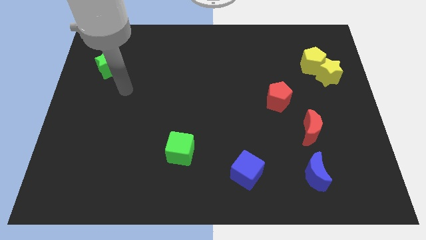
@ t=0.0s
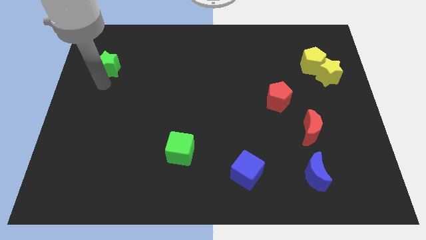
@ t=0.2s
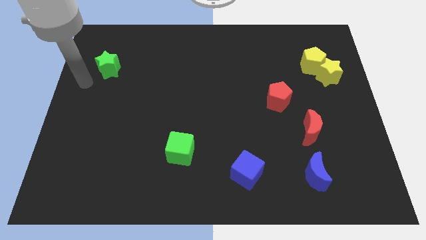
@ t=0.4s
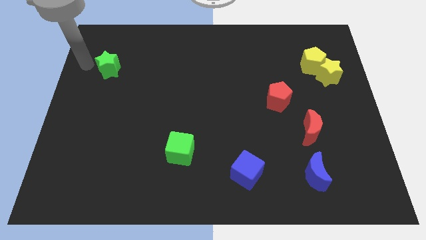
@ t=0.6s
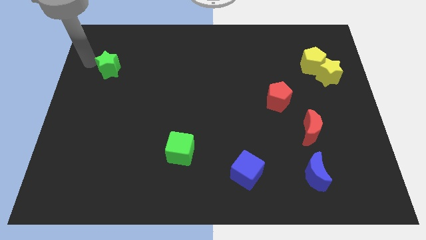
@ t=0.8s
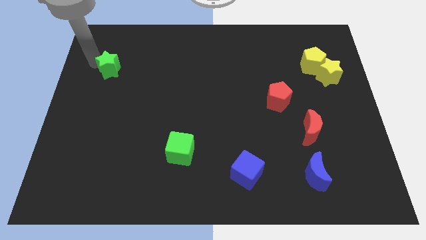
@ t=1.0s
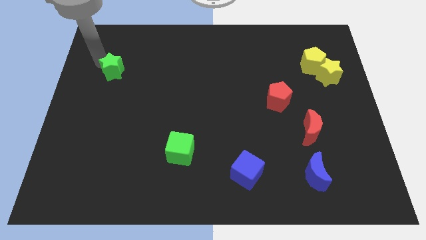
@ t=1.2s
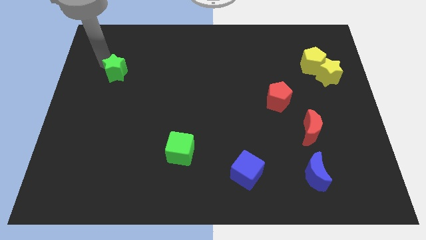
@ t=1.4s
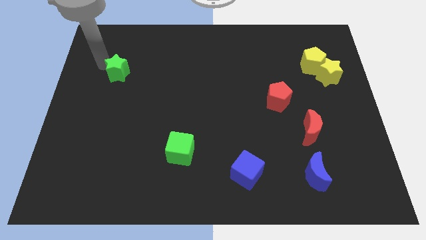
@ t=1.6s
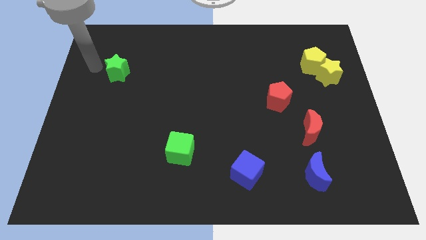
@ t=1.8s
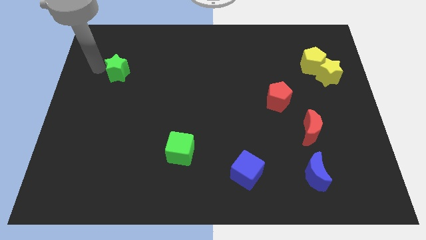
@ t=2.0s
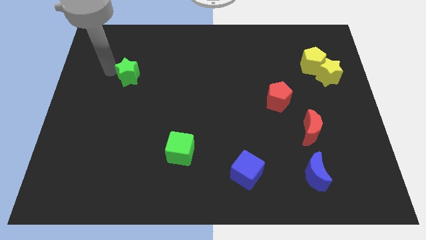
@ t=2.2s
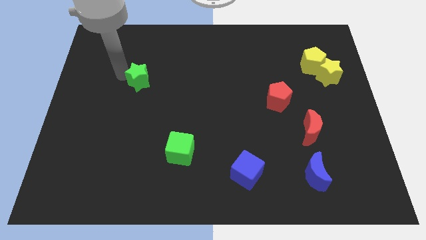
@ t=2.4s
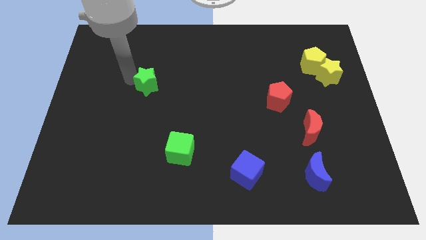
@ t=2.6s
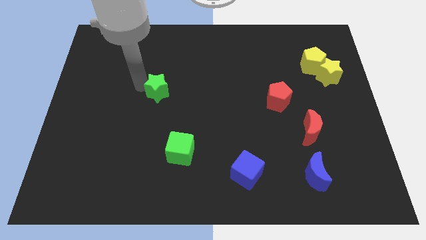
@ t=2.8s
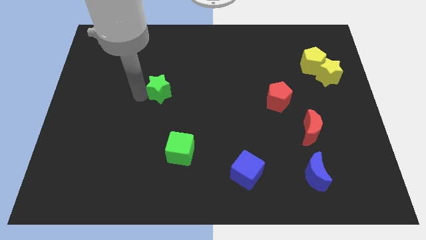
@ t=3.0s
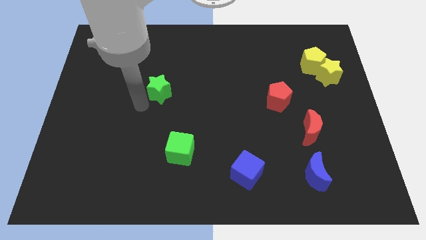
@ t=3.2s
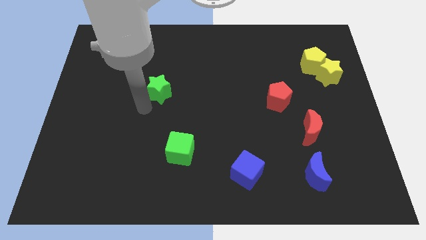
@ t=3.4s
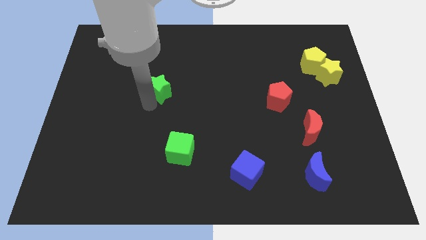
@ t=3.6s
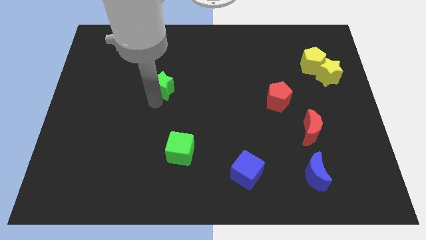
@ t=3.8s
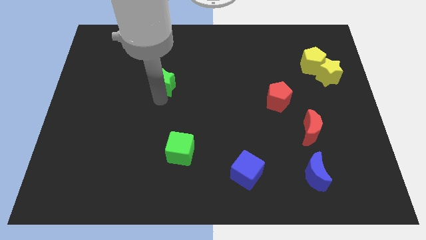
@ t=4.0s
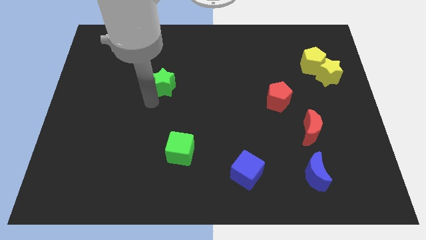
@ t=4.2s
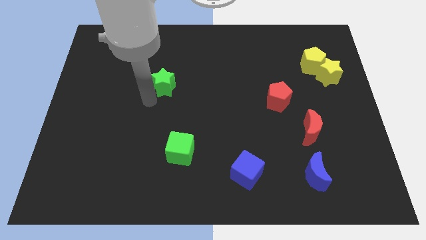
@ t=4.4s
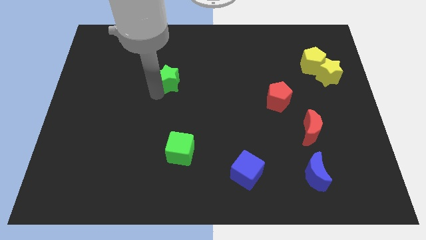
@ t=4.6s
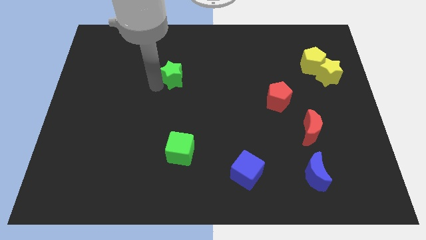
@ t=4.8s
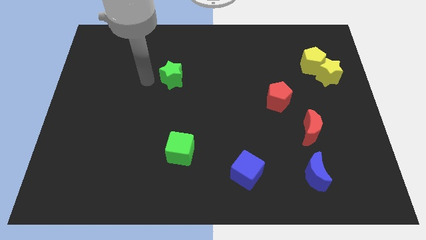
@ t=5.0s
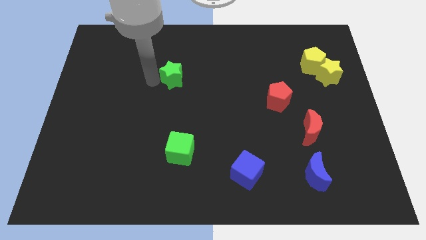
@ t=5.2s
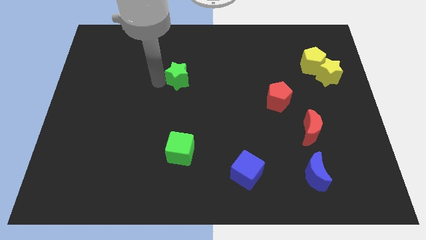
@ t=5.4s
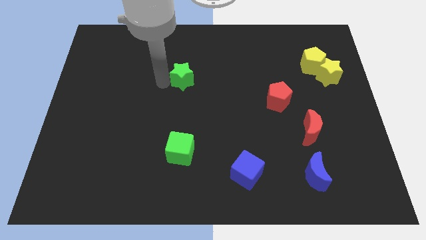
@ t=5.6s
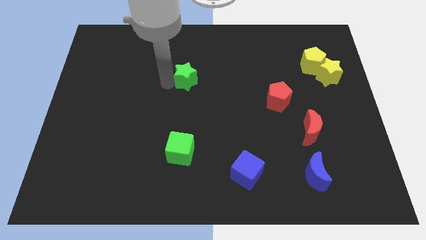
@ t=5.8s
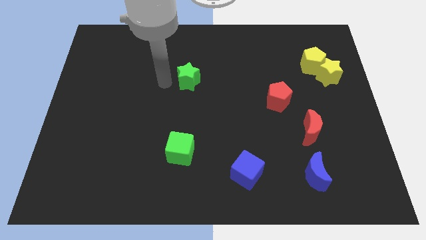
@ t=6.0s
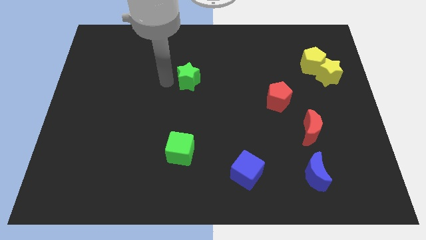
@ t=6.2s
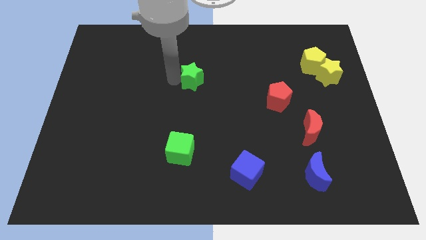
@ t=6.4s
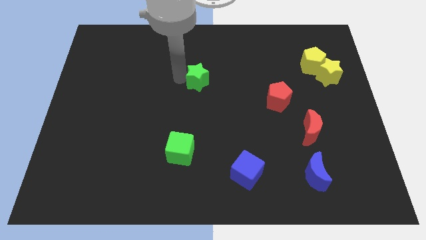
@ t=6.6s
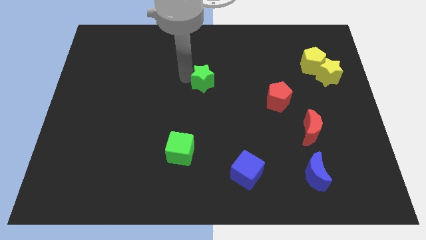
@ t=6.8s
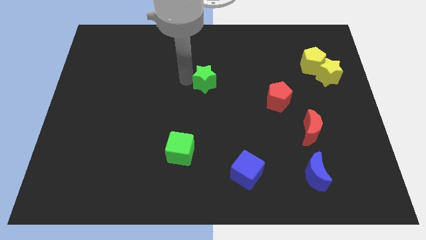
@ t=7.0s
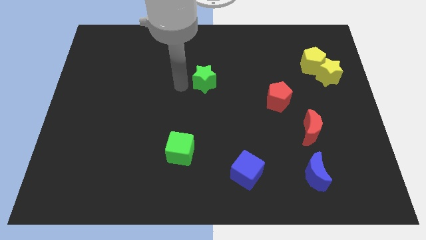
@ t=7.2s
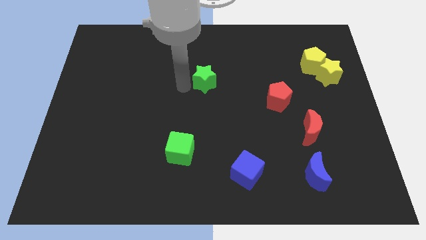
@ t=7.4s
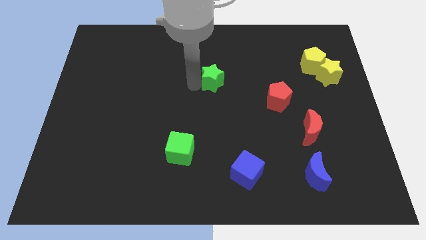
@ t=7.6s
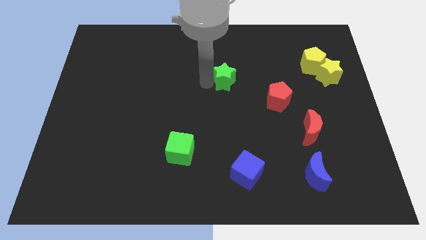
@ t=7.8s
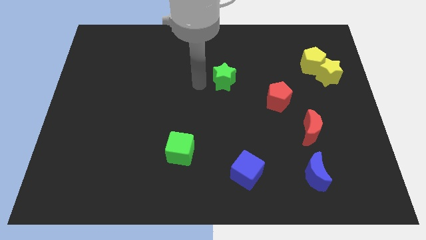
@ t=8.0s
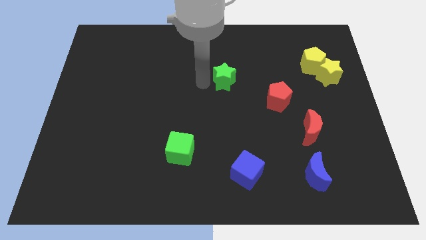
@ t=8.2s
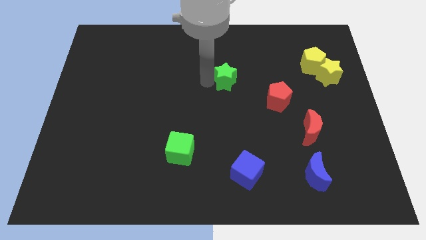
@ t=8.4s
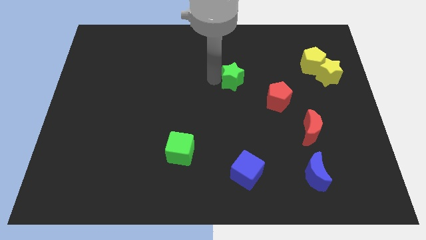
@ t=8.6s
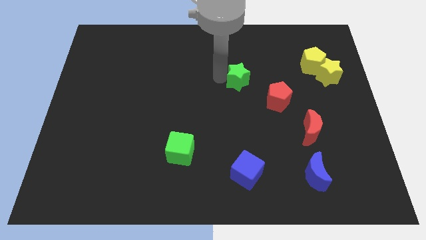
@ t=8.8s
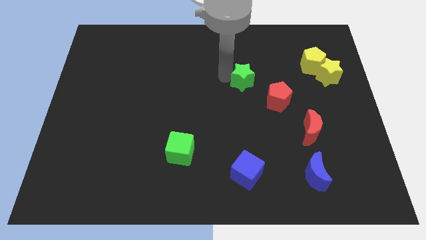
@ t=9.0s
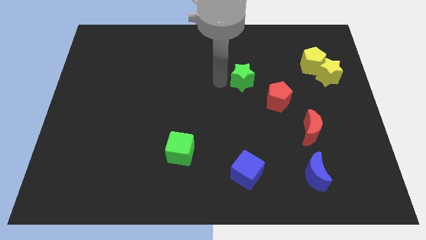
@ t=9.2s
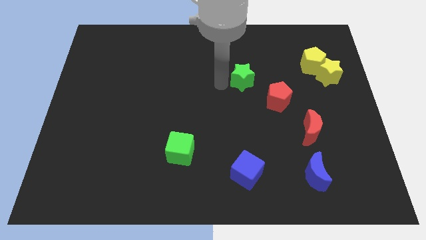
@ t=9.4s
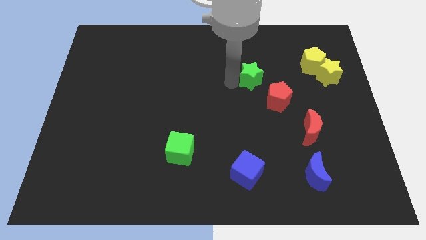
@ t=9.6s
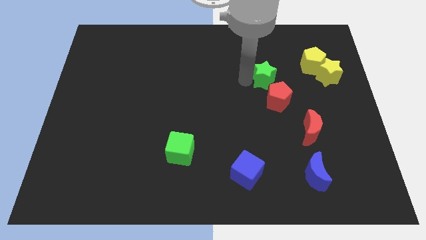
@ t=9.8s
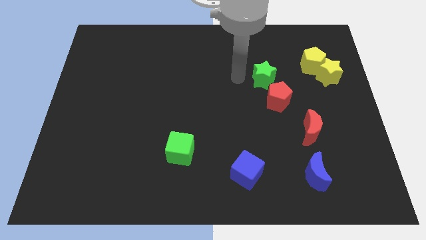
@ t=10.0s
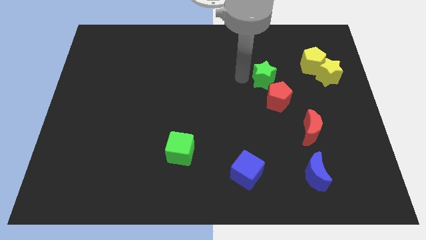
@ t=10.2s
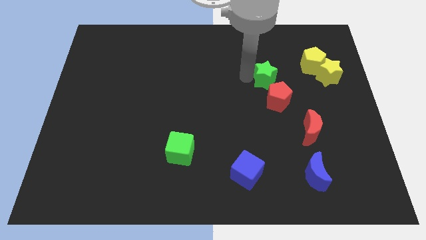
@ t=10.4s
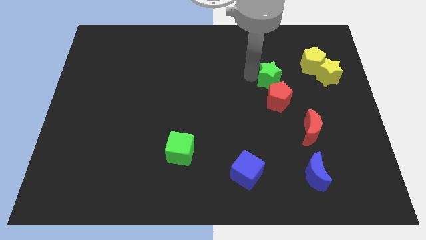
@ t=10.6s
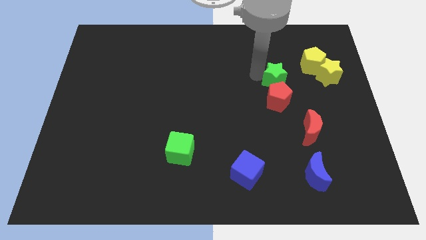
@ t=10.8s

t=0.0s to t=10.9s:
put the green star to the top right side of the red pentagon

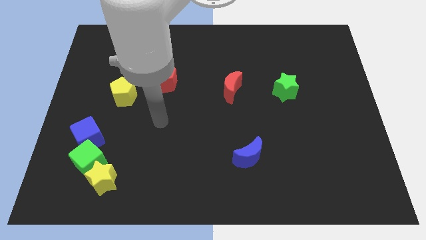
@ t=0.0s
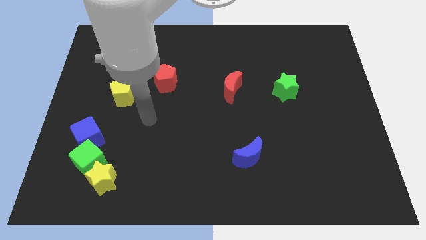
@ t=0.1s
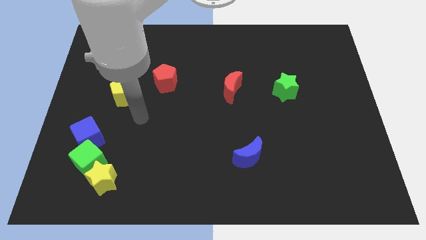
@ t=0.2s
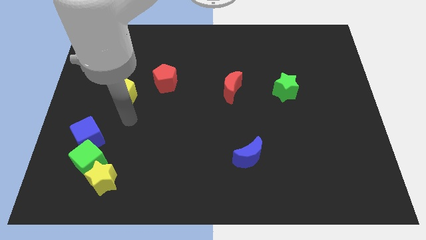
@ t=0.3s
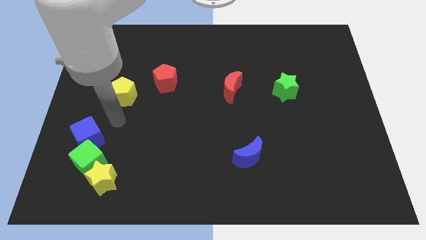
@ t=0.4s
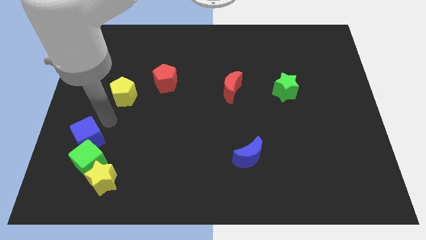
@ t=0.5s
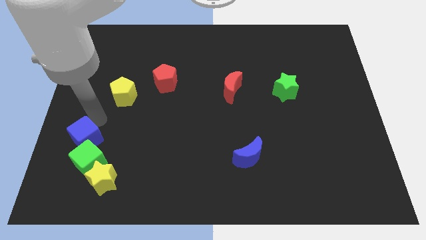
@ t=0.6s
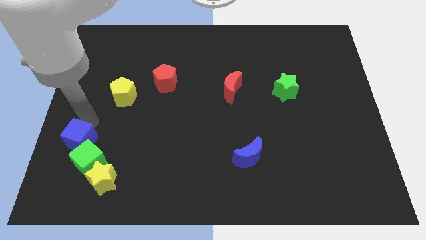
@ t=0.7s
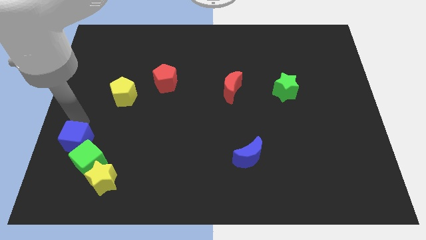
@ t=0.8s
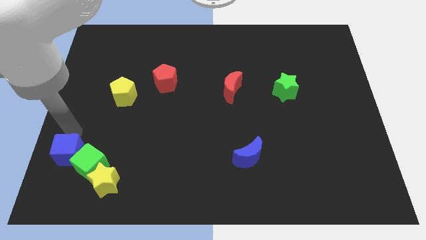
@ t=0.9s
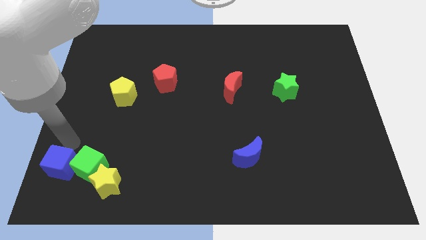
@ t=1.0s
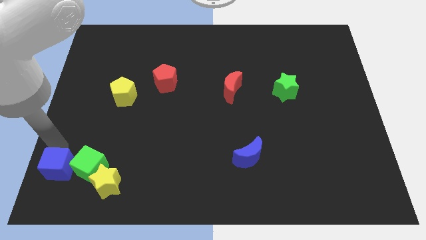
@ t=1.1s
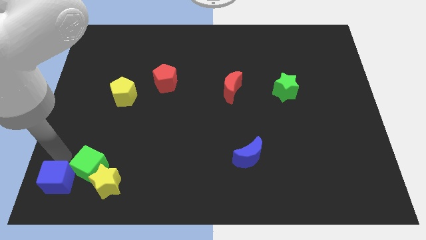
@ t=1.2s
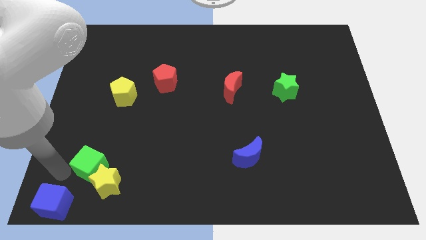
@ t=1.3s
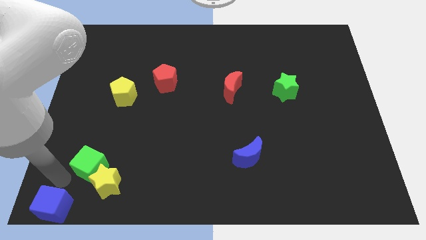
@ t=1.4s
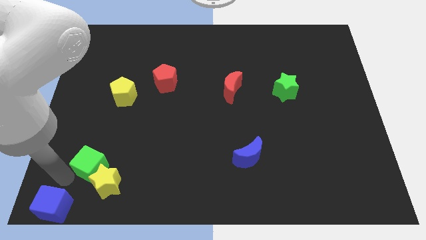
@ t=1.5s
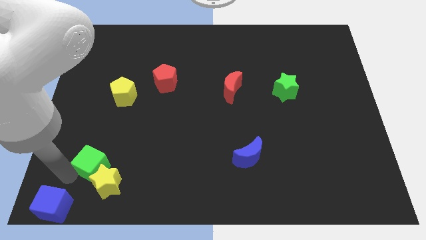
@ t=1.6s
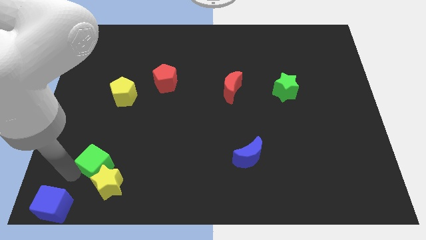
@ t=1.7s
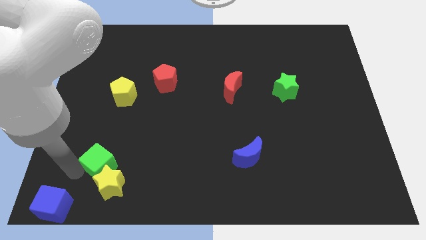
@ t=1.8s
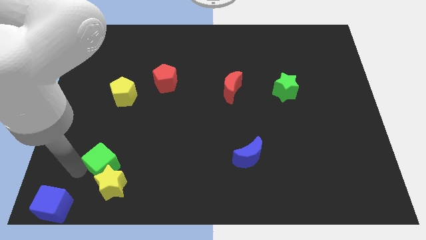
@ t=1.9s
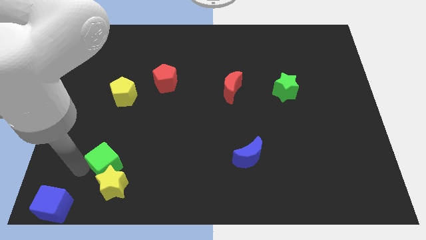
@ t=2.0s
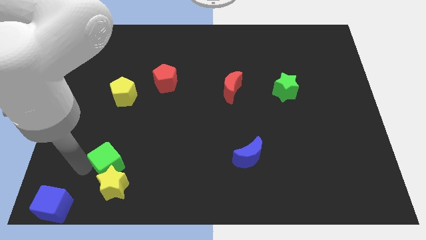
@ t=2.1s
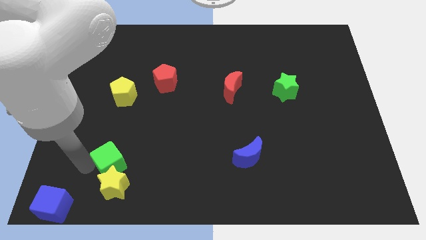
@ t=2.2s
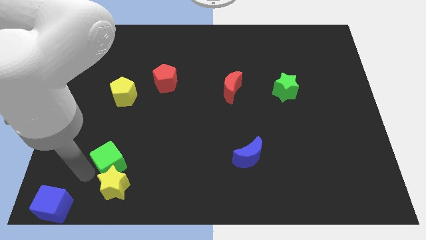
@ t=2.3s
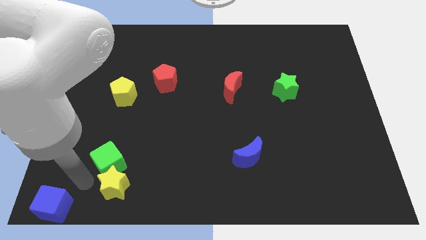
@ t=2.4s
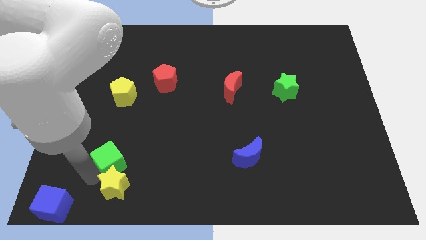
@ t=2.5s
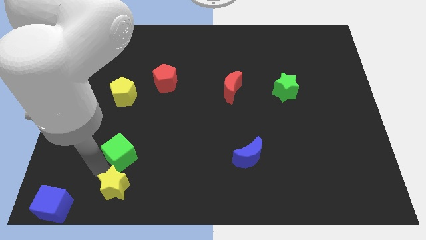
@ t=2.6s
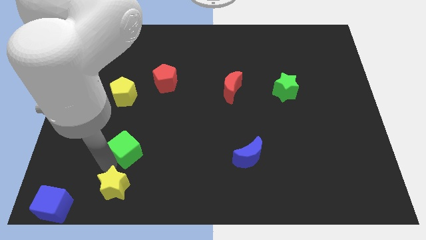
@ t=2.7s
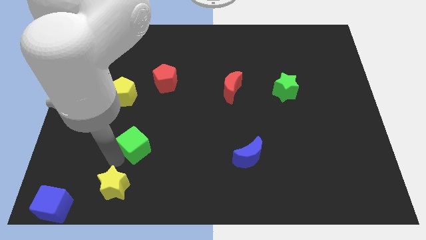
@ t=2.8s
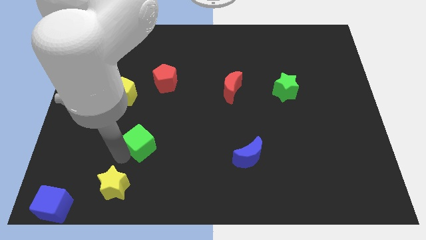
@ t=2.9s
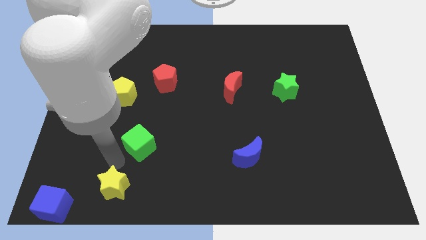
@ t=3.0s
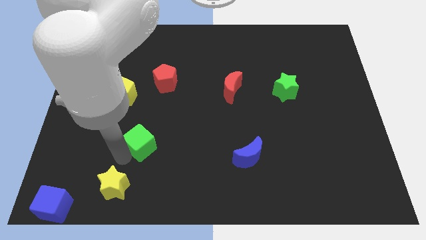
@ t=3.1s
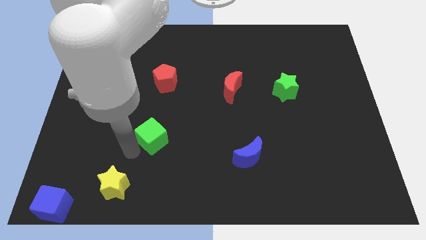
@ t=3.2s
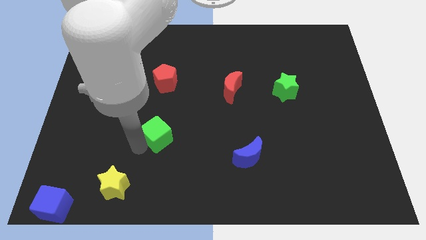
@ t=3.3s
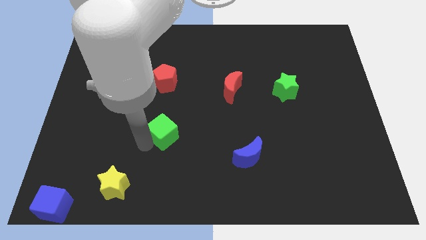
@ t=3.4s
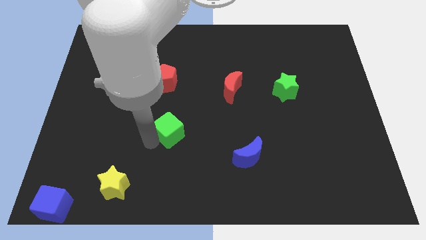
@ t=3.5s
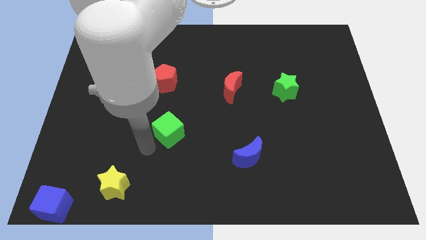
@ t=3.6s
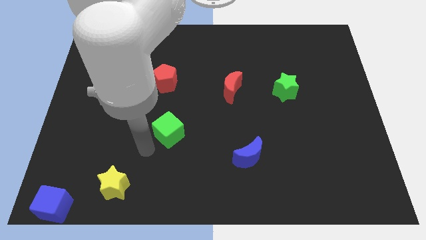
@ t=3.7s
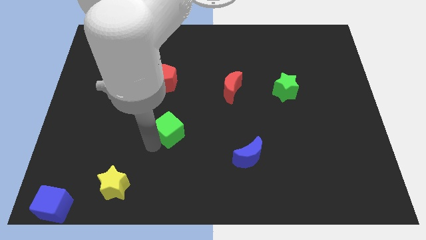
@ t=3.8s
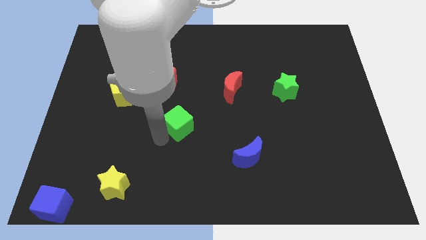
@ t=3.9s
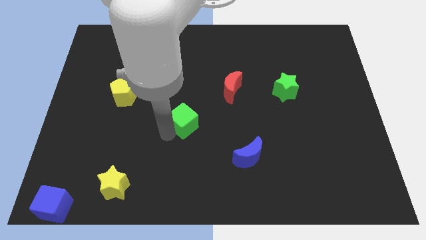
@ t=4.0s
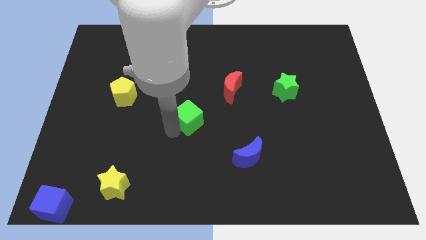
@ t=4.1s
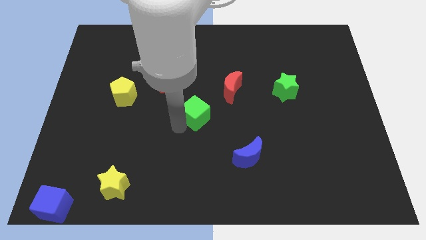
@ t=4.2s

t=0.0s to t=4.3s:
put the green cube to the bottom left of the red moon
